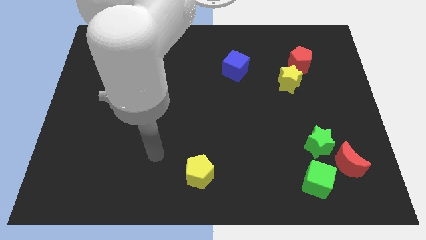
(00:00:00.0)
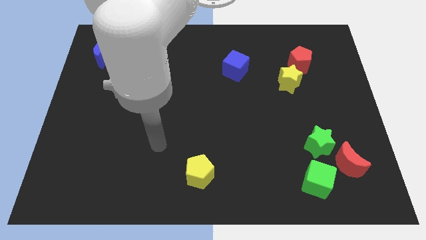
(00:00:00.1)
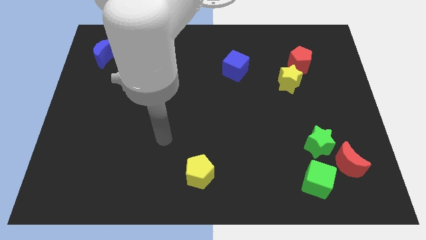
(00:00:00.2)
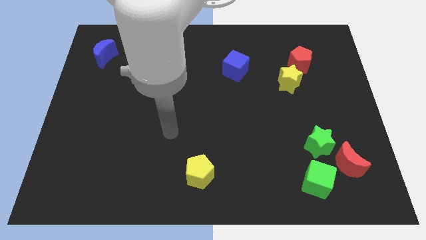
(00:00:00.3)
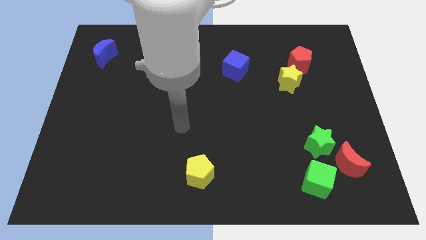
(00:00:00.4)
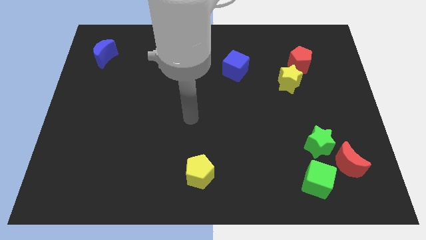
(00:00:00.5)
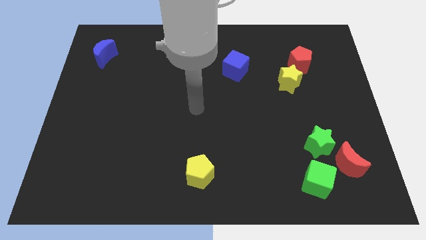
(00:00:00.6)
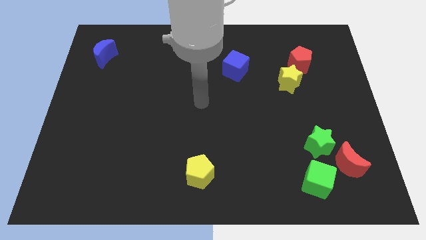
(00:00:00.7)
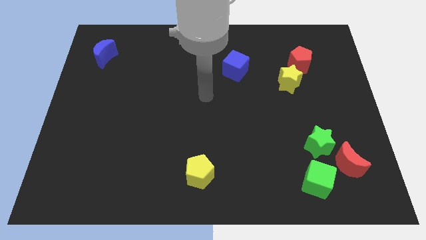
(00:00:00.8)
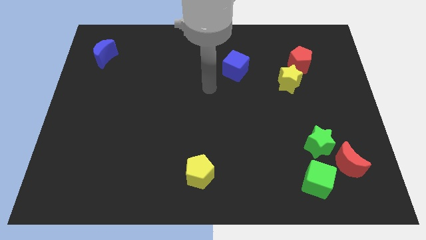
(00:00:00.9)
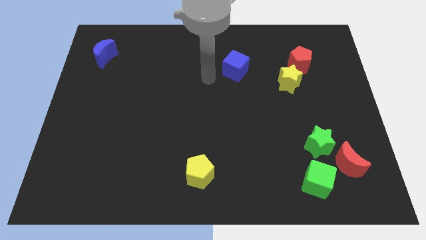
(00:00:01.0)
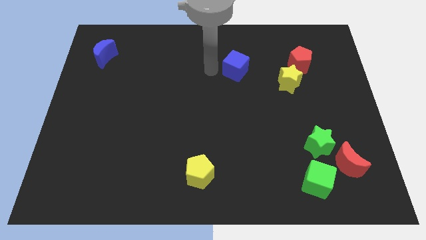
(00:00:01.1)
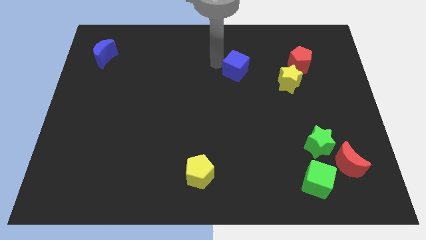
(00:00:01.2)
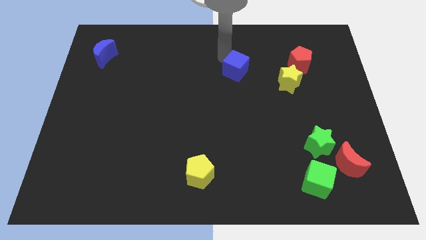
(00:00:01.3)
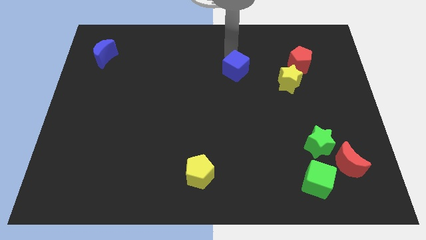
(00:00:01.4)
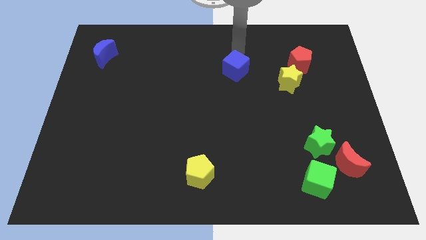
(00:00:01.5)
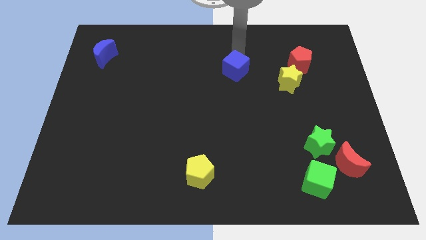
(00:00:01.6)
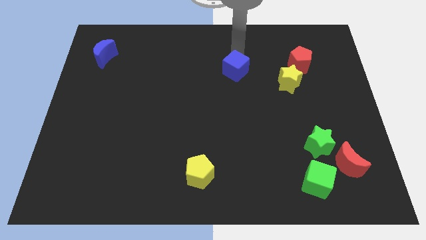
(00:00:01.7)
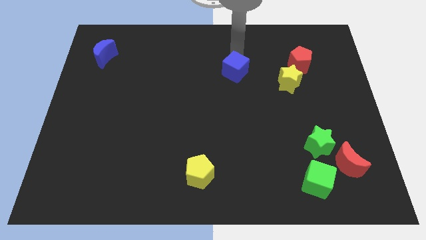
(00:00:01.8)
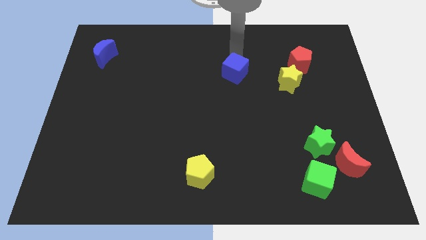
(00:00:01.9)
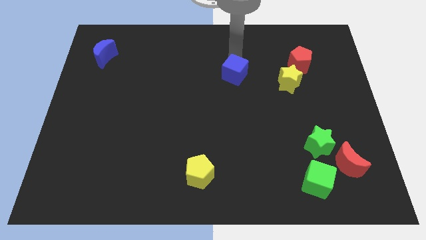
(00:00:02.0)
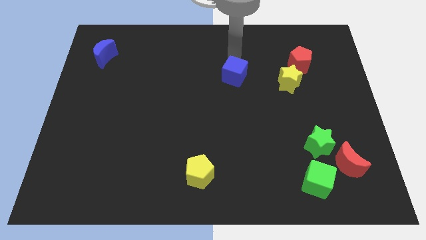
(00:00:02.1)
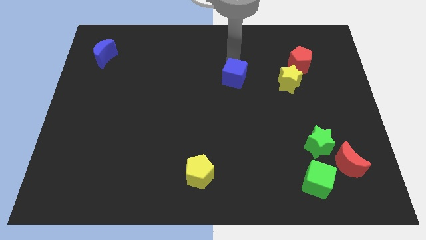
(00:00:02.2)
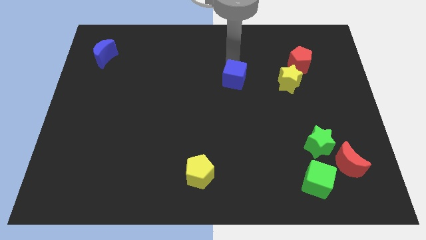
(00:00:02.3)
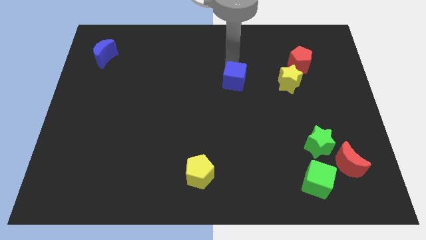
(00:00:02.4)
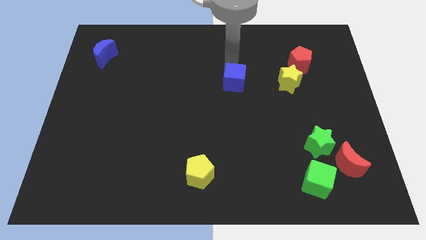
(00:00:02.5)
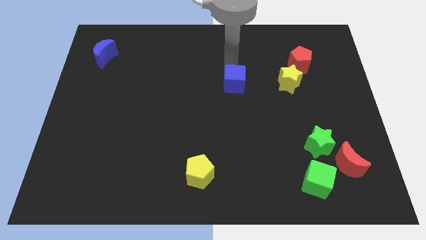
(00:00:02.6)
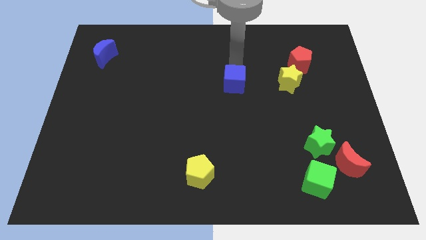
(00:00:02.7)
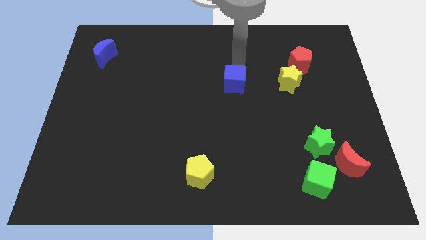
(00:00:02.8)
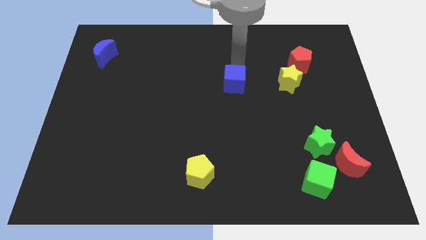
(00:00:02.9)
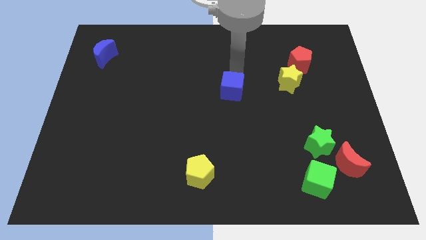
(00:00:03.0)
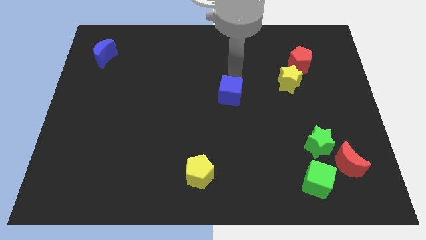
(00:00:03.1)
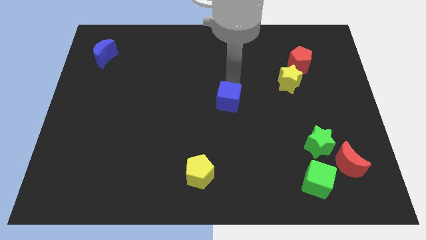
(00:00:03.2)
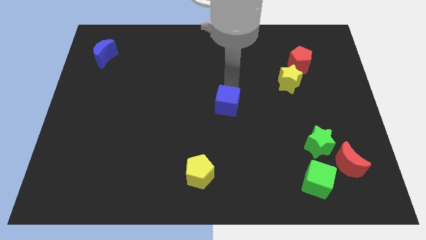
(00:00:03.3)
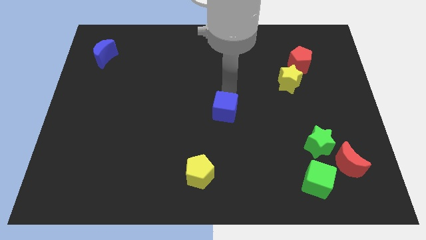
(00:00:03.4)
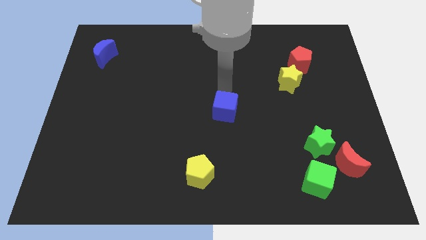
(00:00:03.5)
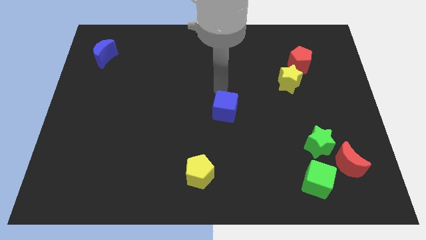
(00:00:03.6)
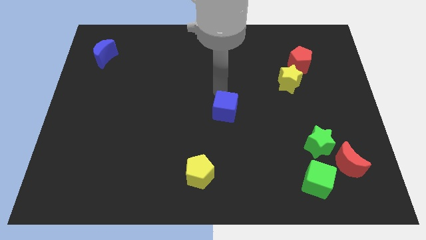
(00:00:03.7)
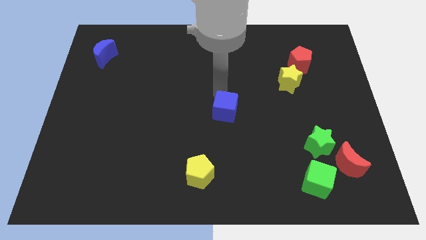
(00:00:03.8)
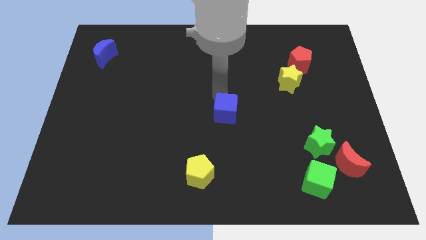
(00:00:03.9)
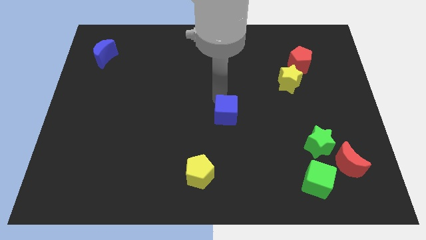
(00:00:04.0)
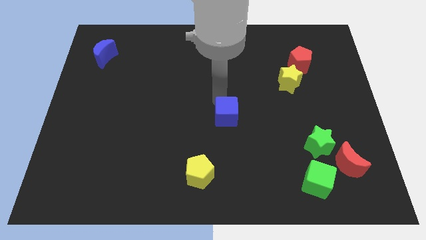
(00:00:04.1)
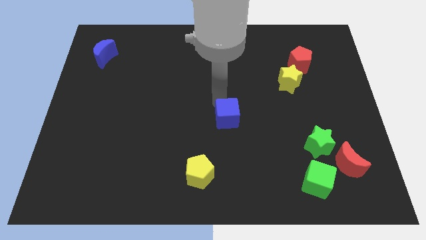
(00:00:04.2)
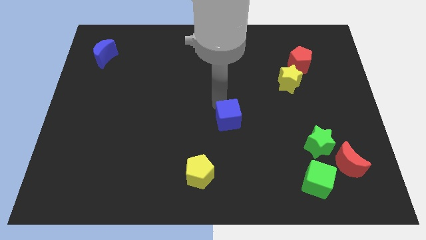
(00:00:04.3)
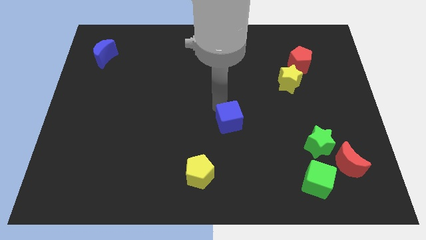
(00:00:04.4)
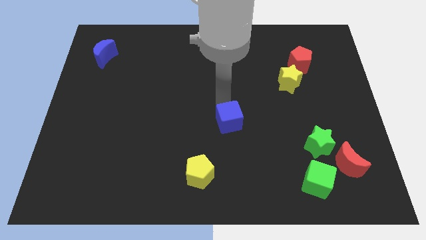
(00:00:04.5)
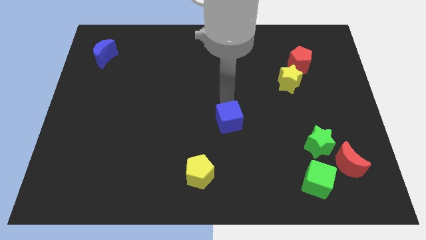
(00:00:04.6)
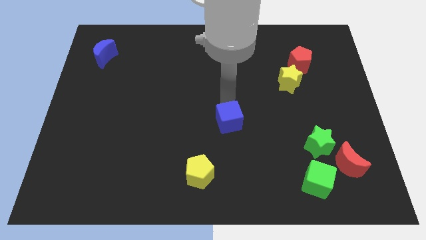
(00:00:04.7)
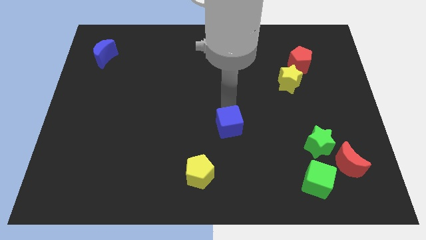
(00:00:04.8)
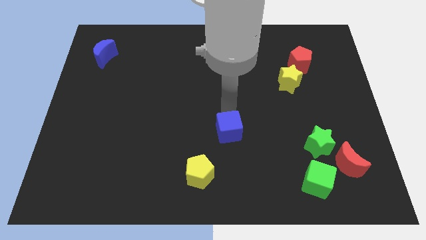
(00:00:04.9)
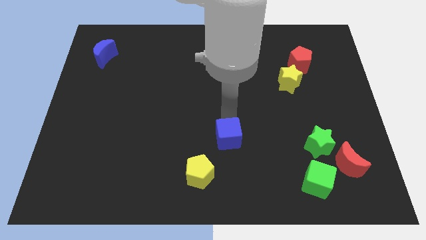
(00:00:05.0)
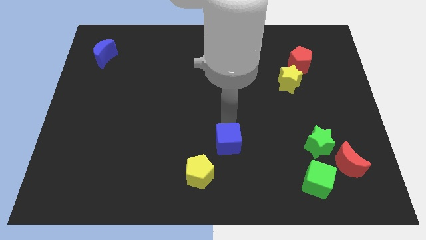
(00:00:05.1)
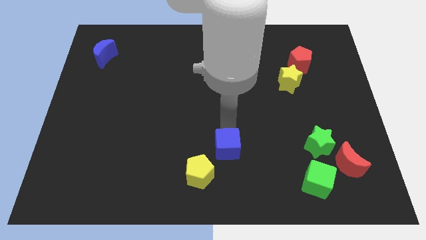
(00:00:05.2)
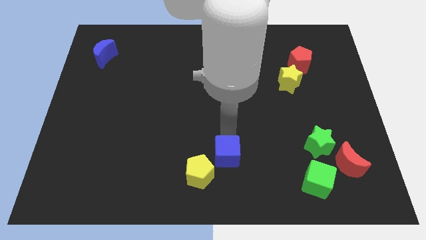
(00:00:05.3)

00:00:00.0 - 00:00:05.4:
slide the blue cube to the bottom side

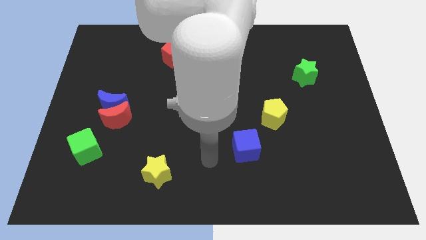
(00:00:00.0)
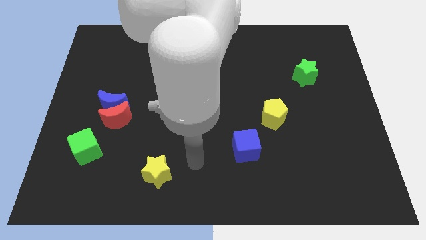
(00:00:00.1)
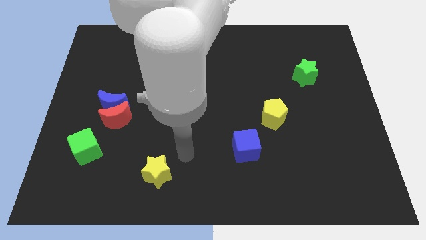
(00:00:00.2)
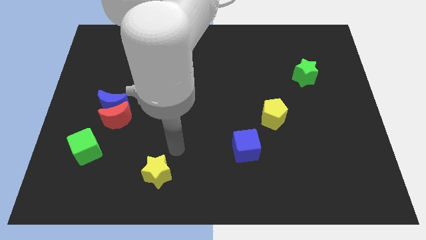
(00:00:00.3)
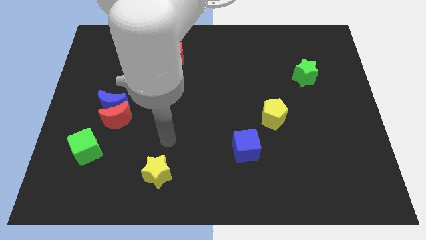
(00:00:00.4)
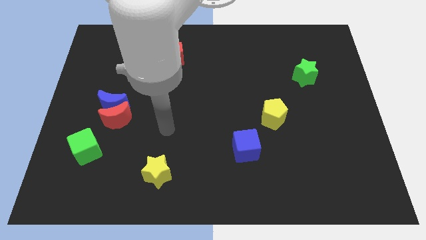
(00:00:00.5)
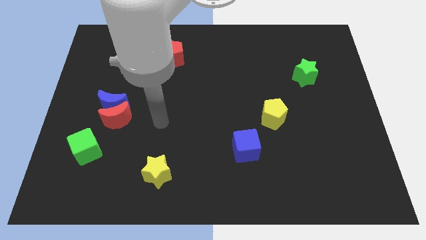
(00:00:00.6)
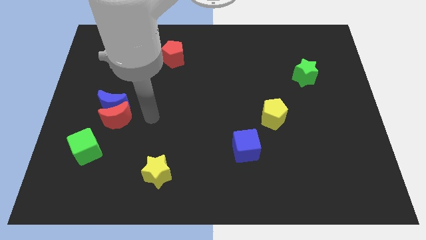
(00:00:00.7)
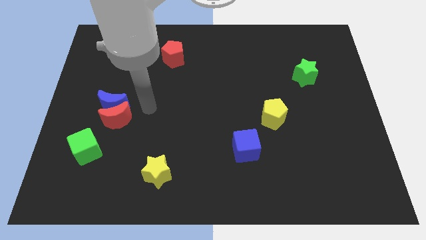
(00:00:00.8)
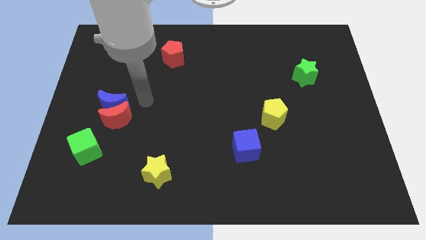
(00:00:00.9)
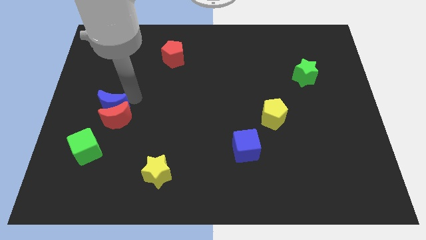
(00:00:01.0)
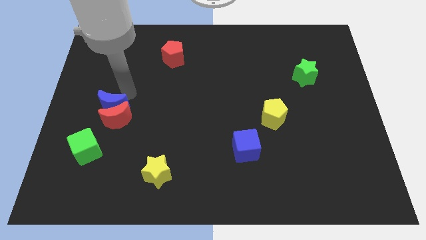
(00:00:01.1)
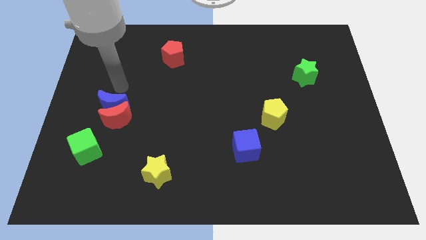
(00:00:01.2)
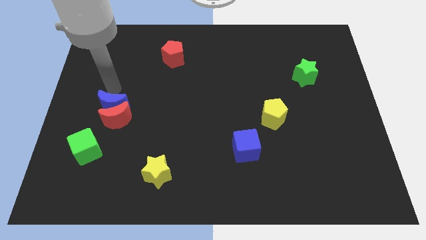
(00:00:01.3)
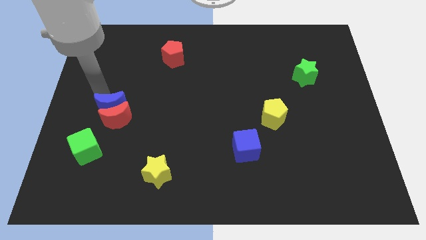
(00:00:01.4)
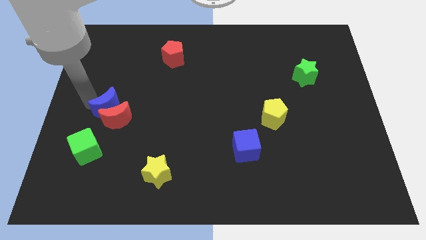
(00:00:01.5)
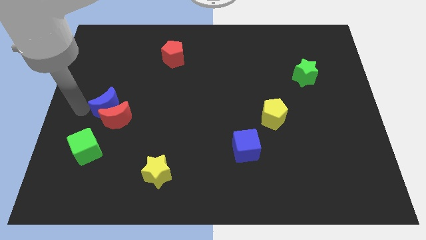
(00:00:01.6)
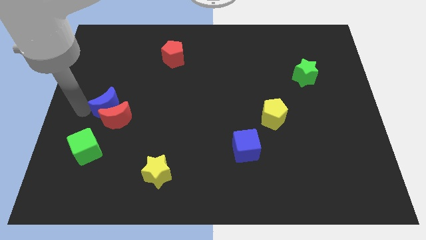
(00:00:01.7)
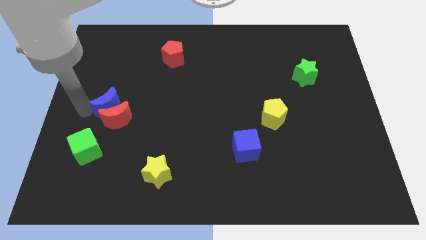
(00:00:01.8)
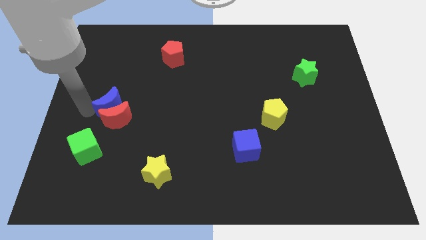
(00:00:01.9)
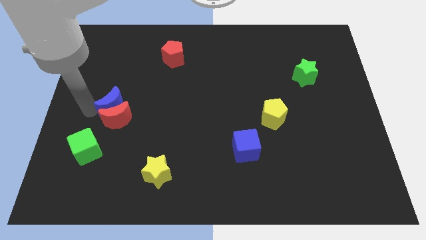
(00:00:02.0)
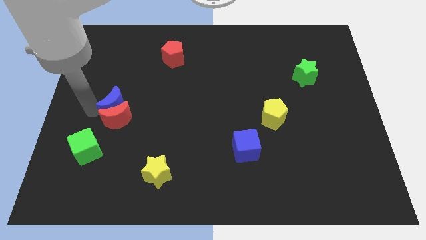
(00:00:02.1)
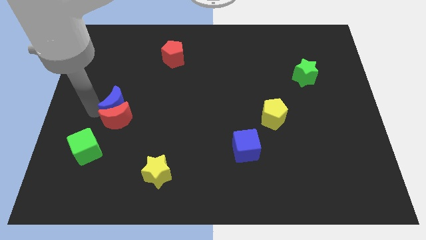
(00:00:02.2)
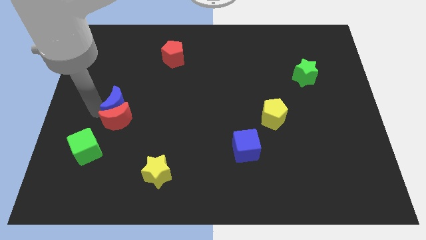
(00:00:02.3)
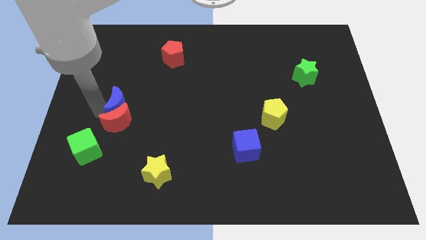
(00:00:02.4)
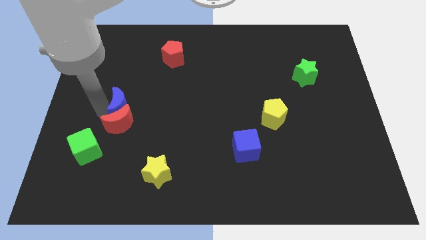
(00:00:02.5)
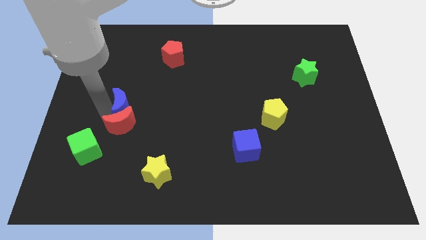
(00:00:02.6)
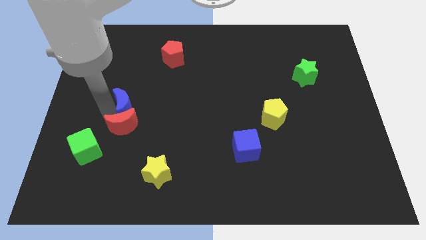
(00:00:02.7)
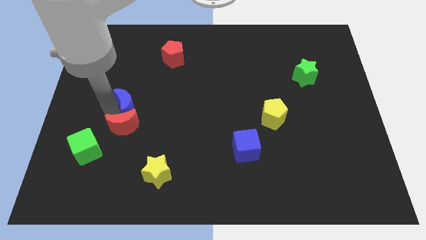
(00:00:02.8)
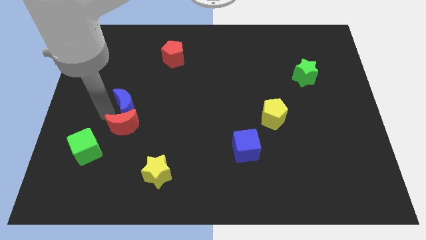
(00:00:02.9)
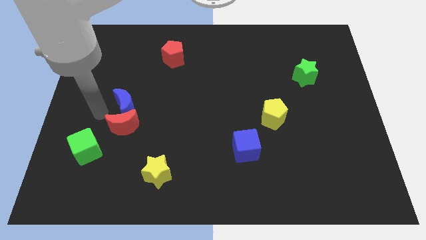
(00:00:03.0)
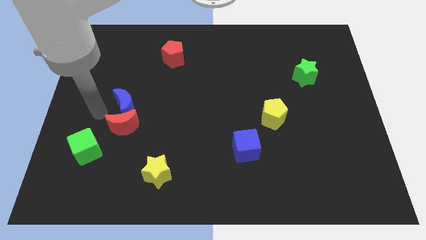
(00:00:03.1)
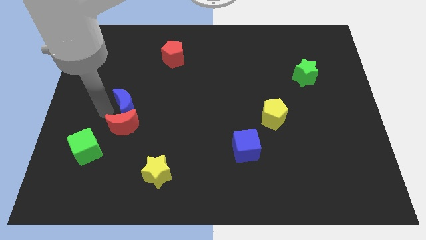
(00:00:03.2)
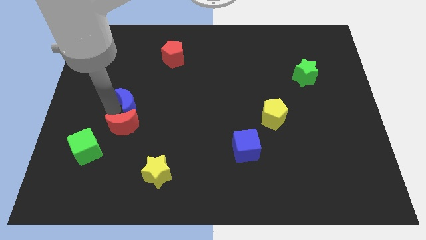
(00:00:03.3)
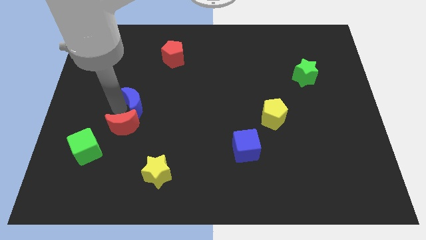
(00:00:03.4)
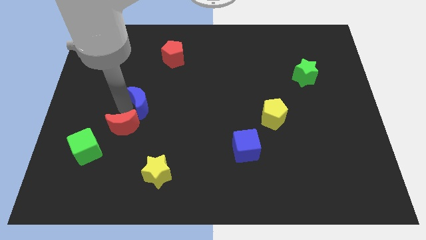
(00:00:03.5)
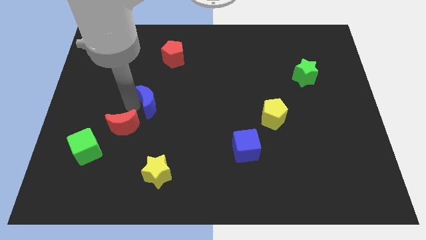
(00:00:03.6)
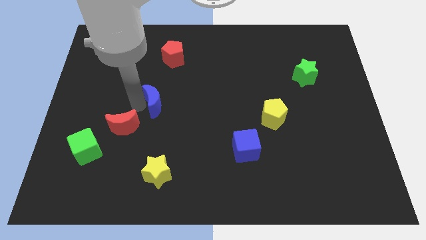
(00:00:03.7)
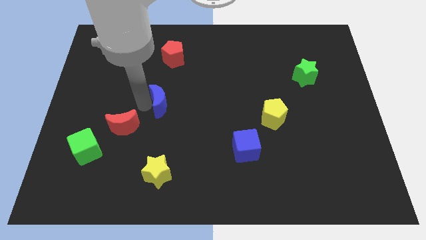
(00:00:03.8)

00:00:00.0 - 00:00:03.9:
put the blue moon to the center of the board
